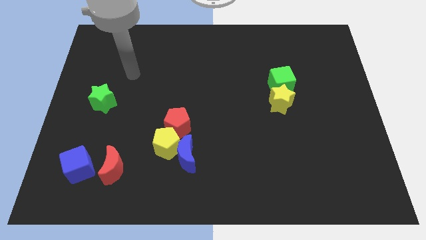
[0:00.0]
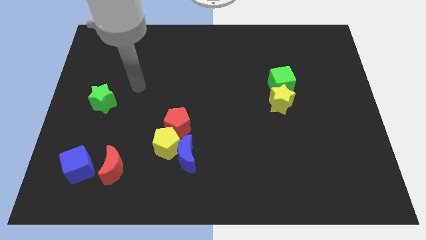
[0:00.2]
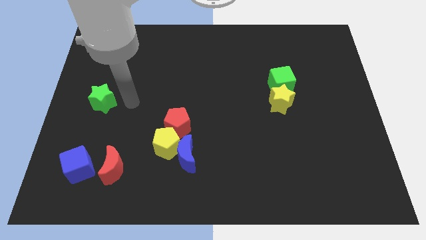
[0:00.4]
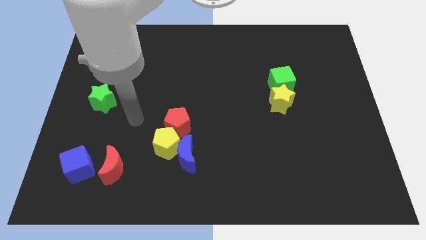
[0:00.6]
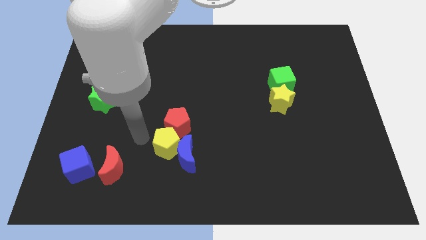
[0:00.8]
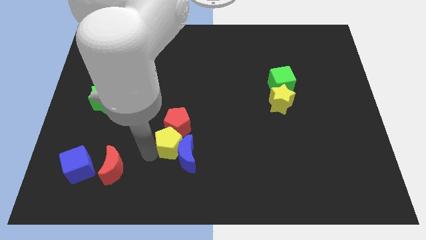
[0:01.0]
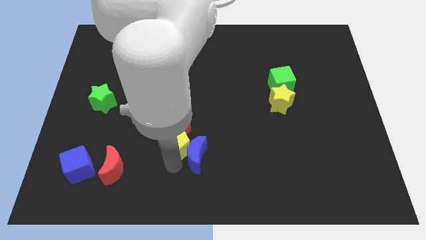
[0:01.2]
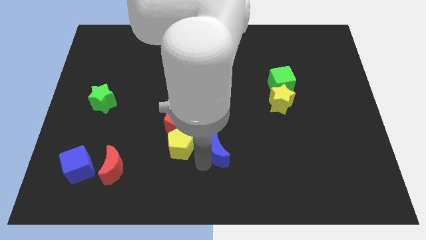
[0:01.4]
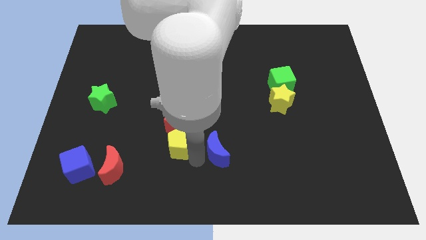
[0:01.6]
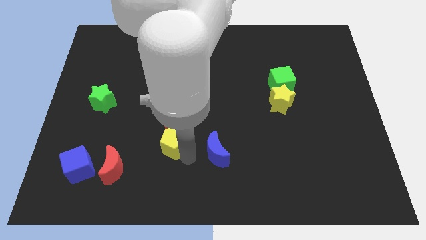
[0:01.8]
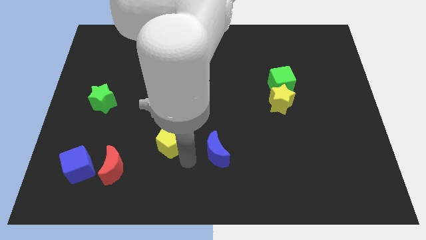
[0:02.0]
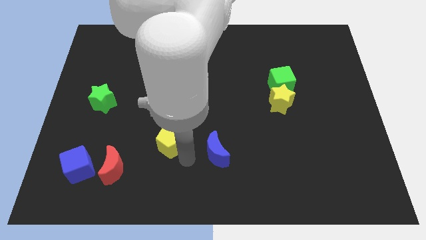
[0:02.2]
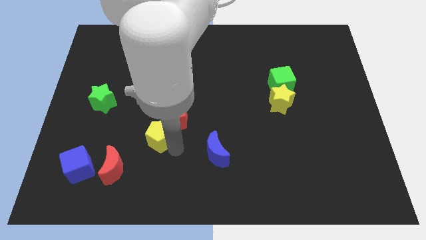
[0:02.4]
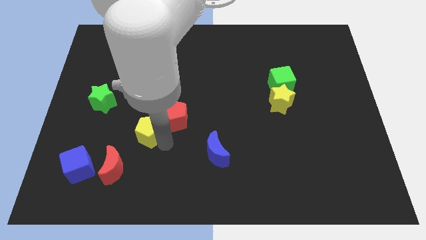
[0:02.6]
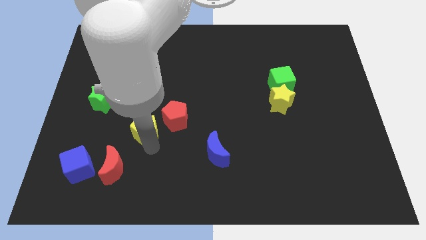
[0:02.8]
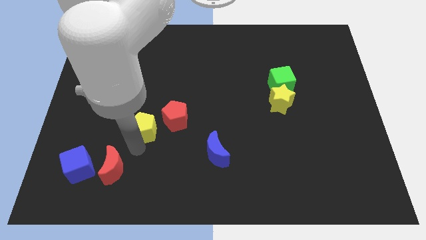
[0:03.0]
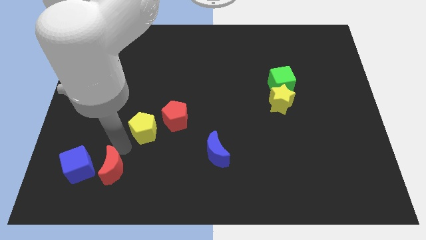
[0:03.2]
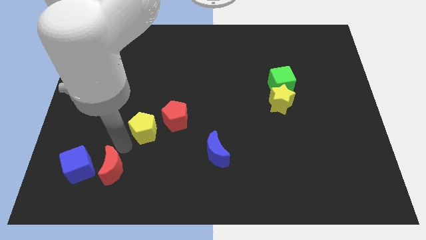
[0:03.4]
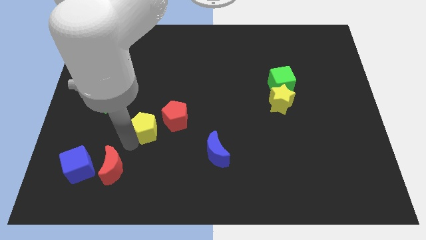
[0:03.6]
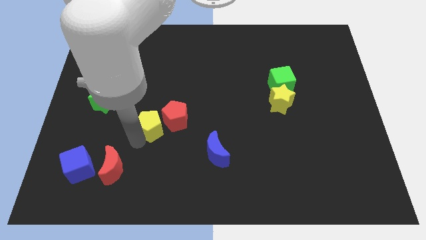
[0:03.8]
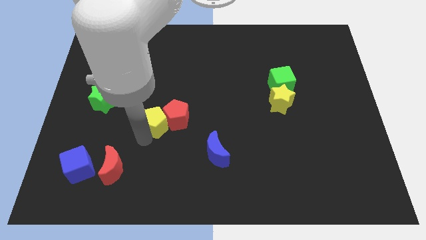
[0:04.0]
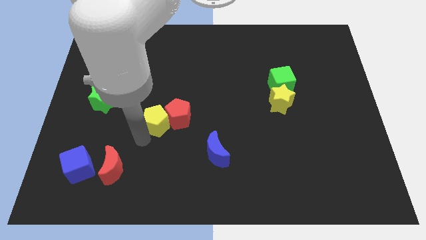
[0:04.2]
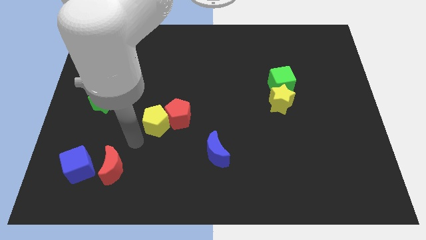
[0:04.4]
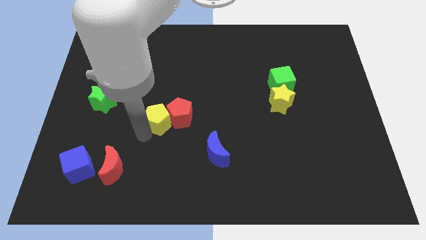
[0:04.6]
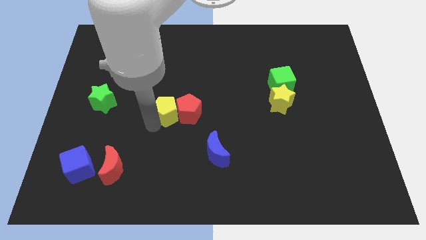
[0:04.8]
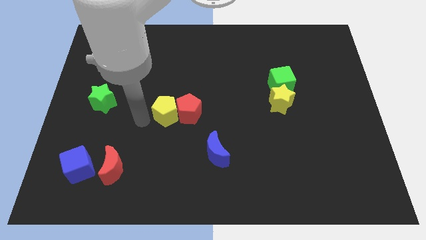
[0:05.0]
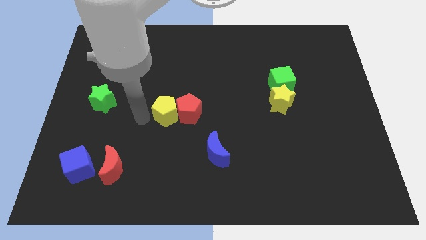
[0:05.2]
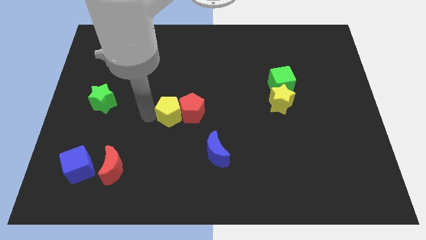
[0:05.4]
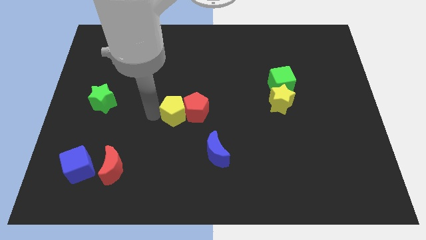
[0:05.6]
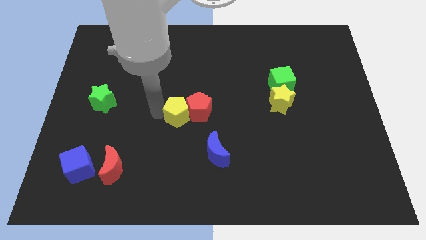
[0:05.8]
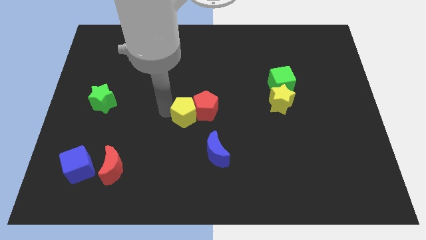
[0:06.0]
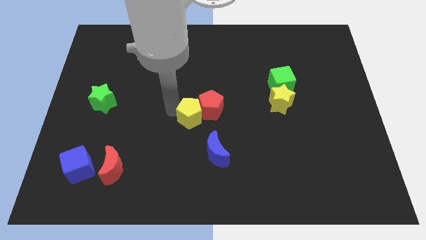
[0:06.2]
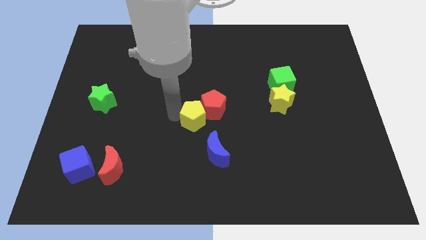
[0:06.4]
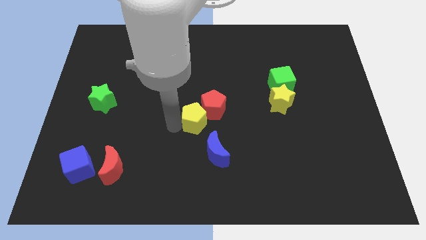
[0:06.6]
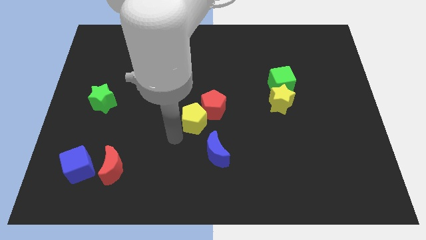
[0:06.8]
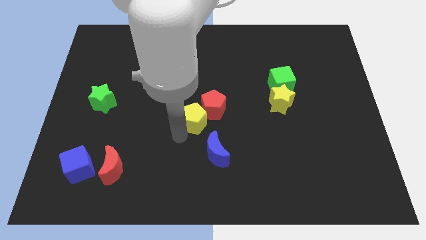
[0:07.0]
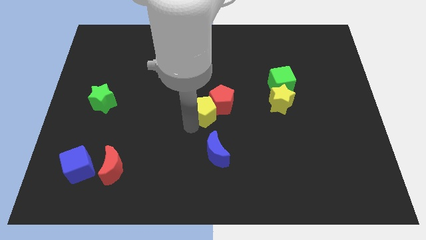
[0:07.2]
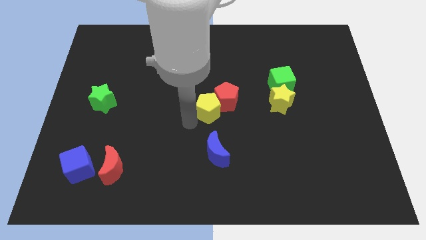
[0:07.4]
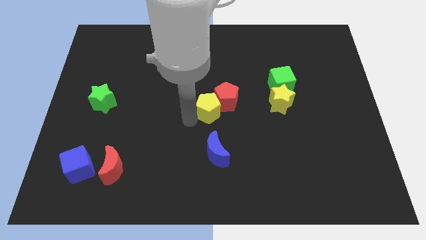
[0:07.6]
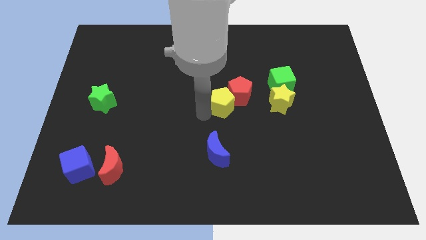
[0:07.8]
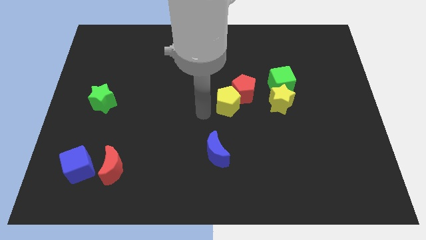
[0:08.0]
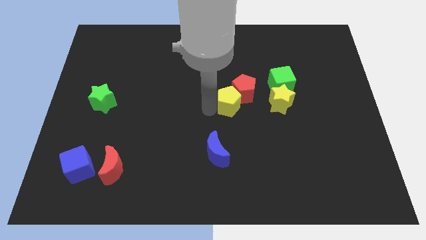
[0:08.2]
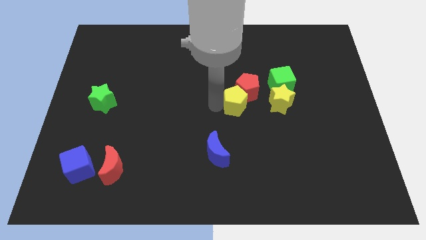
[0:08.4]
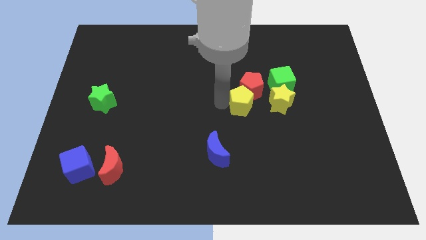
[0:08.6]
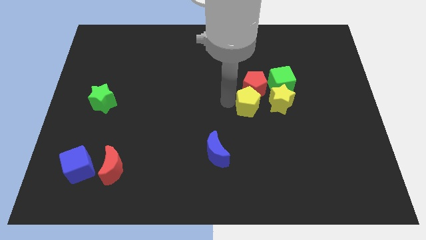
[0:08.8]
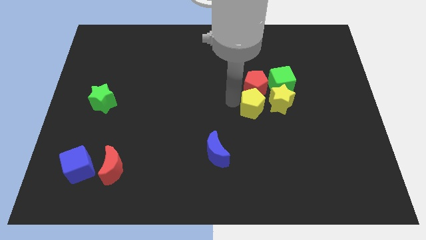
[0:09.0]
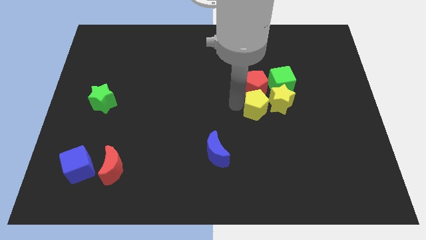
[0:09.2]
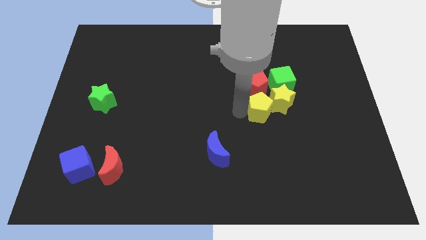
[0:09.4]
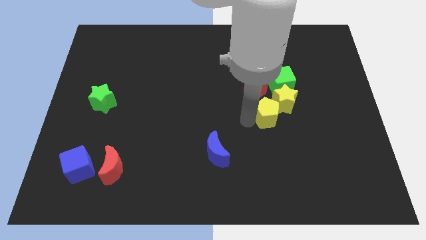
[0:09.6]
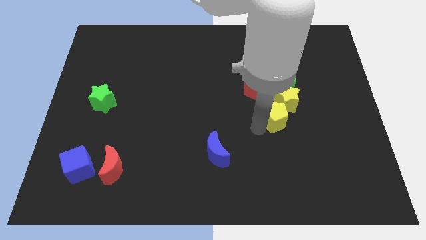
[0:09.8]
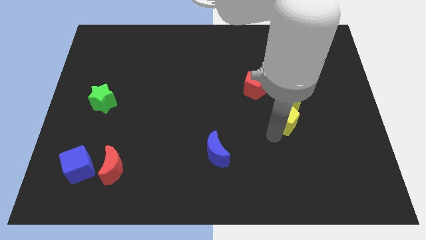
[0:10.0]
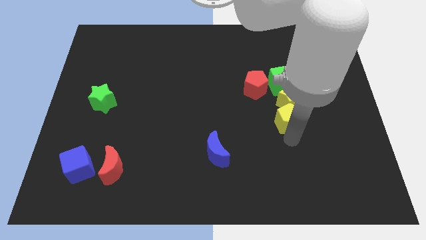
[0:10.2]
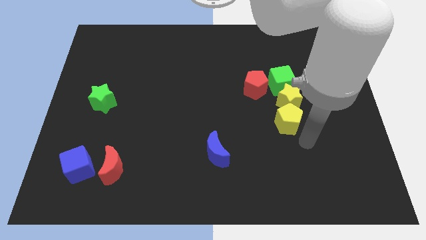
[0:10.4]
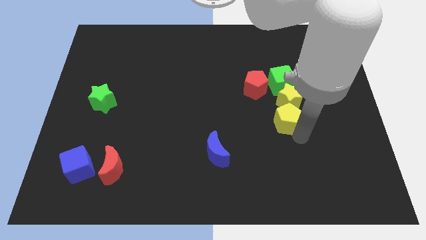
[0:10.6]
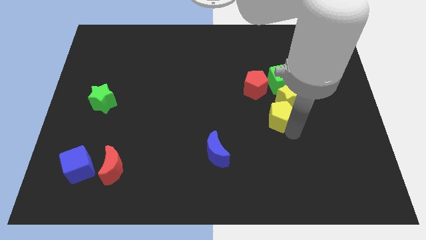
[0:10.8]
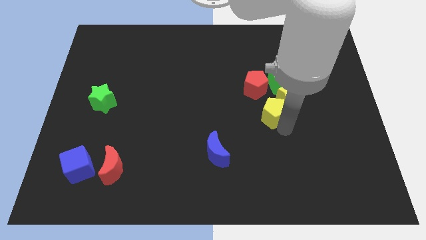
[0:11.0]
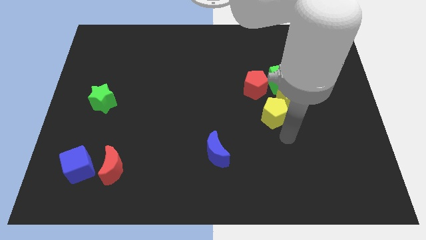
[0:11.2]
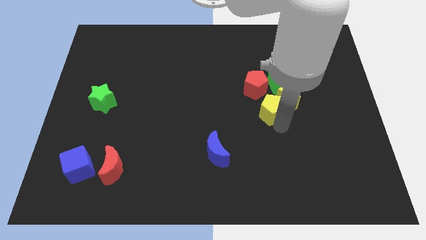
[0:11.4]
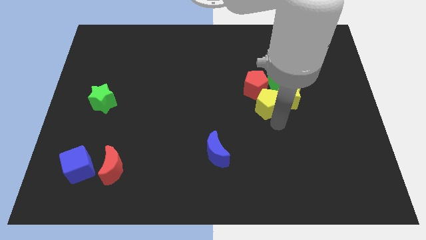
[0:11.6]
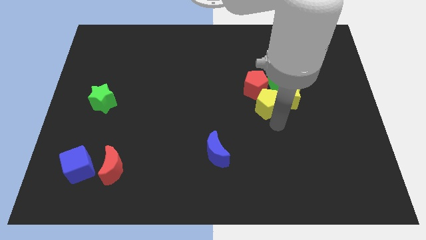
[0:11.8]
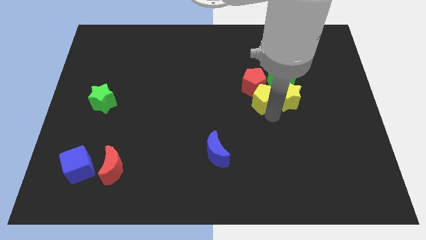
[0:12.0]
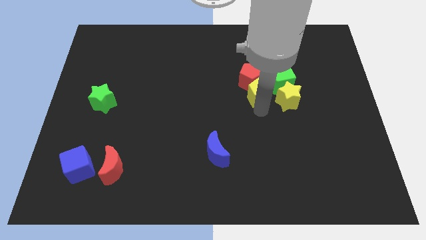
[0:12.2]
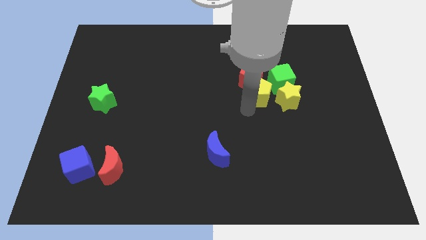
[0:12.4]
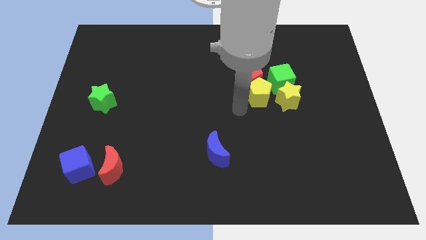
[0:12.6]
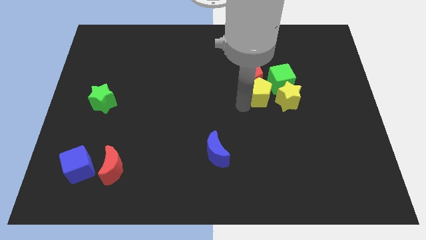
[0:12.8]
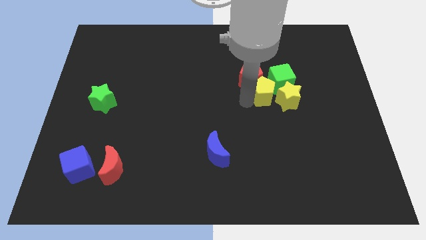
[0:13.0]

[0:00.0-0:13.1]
move the yellow pentagon to the green cube
